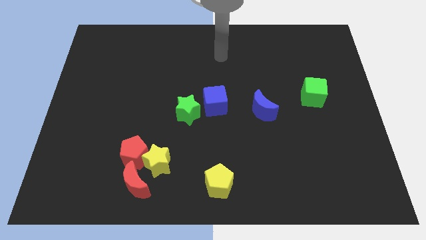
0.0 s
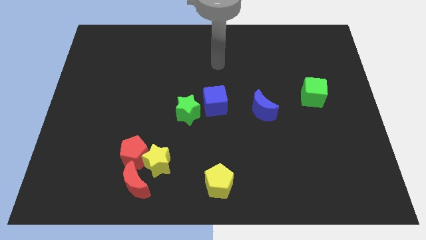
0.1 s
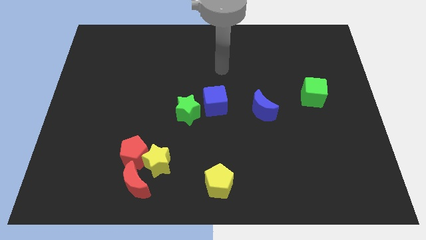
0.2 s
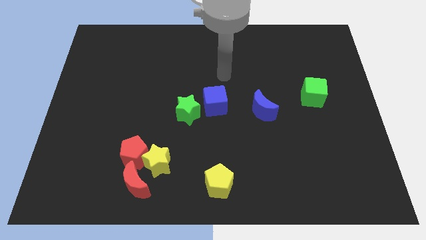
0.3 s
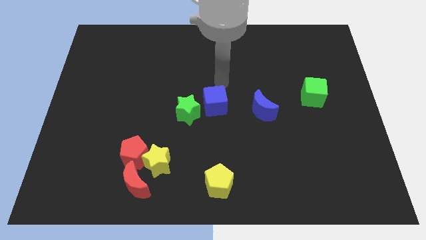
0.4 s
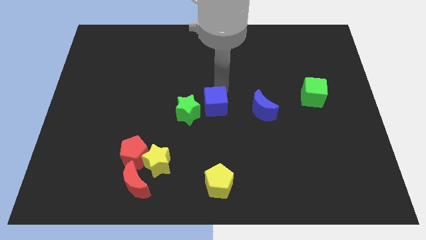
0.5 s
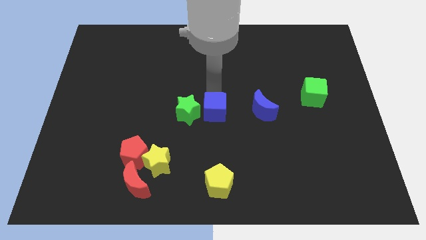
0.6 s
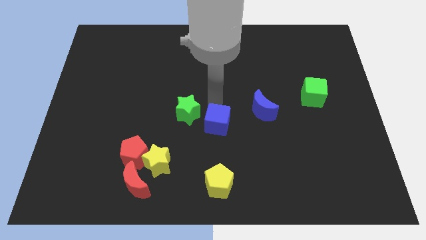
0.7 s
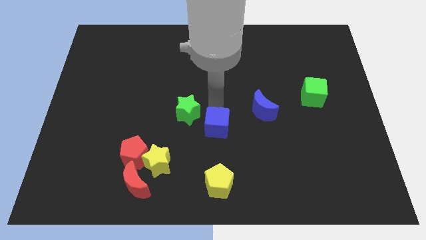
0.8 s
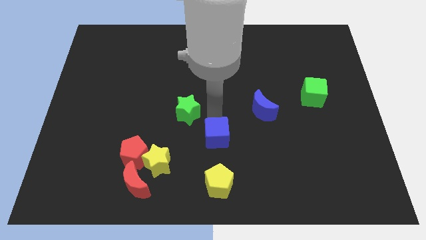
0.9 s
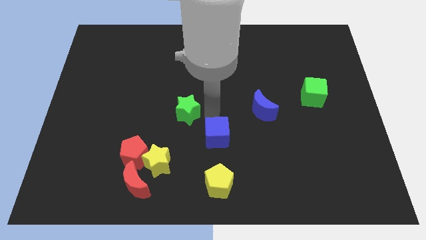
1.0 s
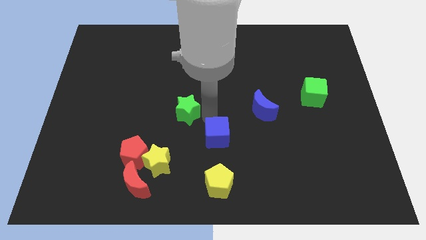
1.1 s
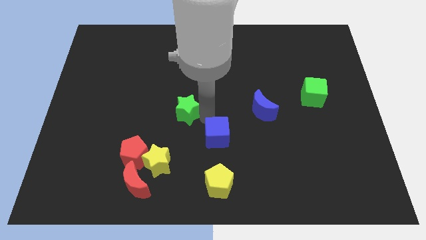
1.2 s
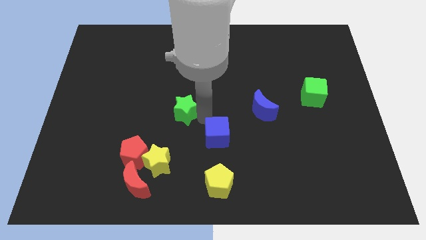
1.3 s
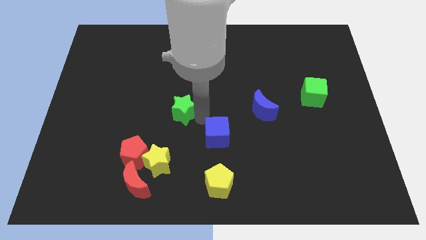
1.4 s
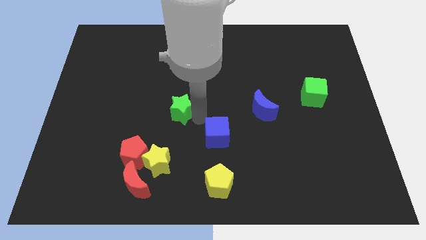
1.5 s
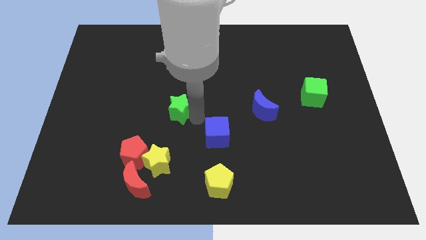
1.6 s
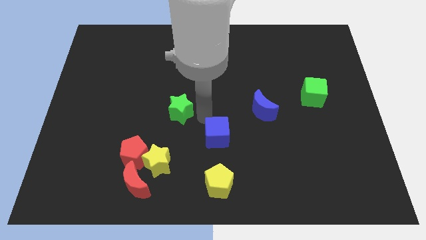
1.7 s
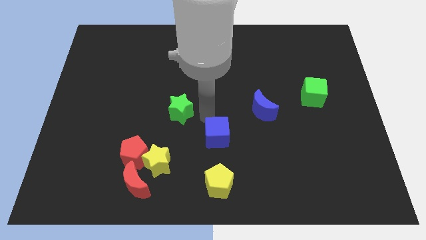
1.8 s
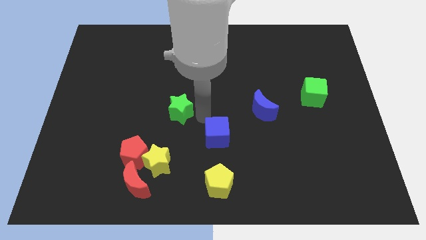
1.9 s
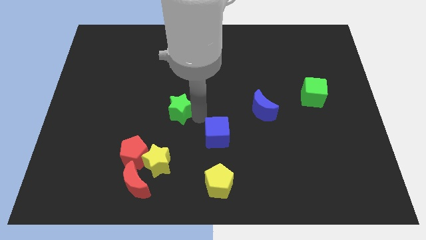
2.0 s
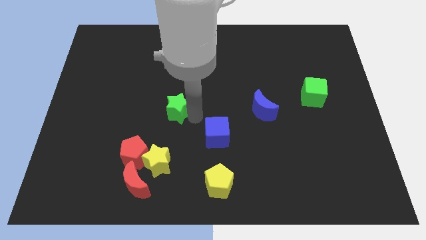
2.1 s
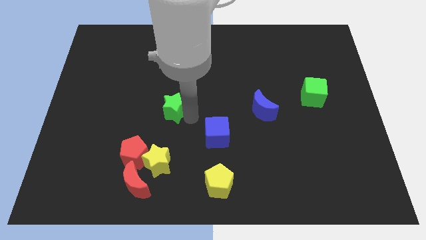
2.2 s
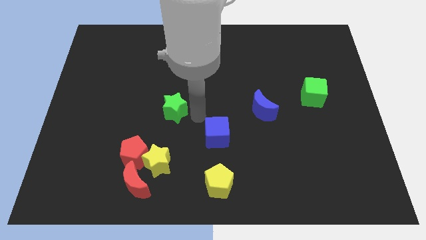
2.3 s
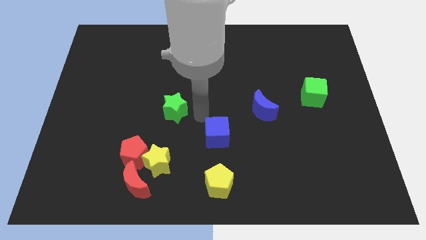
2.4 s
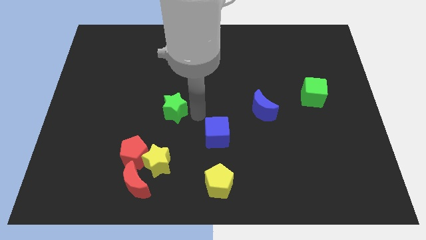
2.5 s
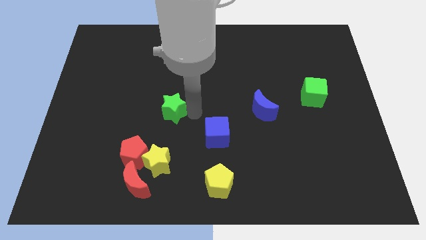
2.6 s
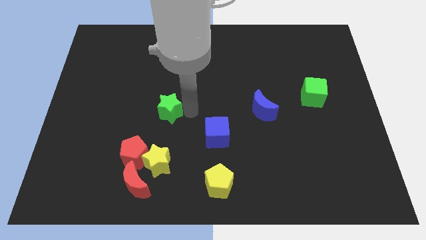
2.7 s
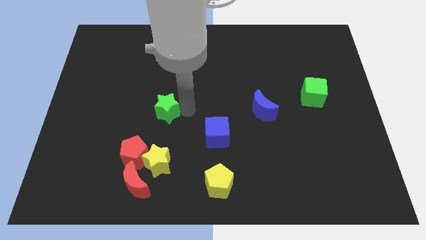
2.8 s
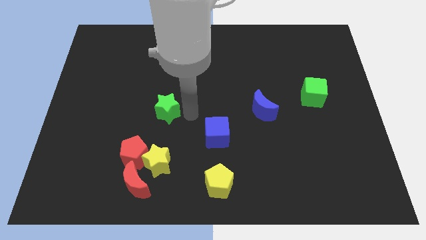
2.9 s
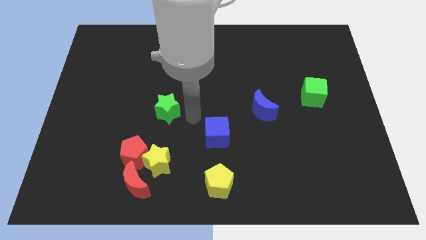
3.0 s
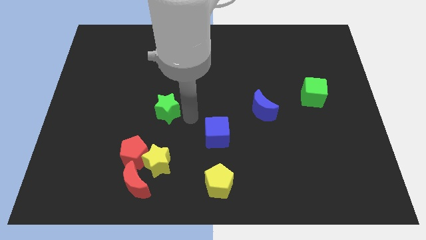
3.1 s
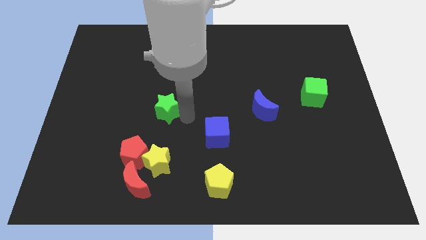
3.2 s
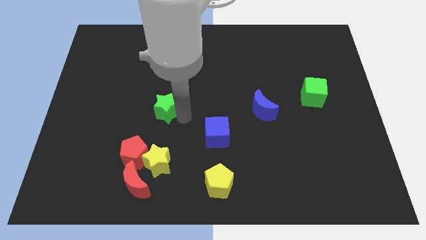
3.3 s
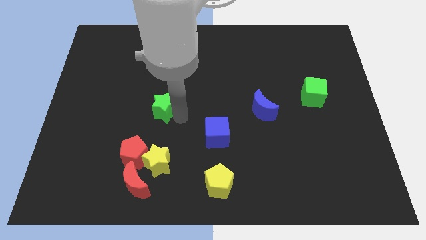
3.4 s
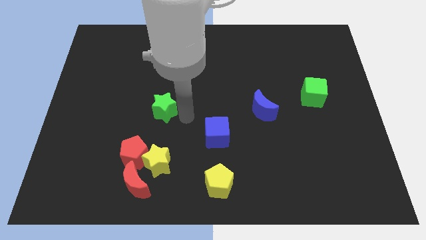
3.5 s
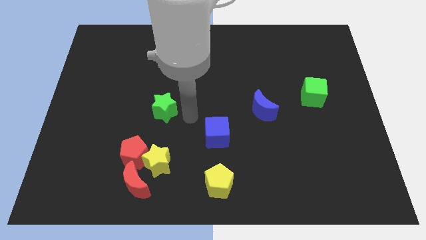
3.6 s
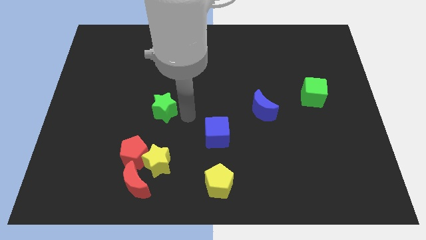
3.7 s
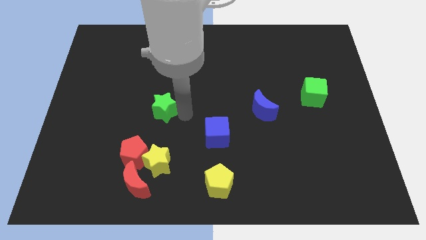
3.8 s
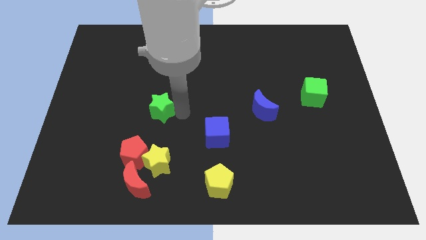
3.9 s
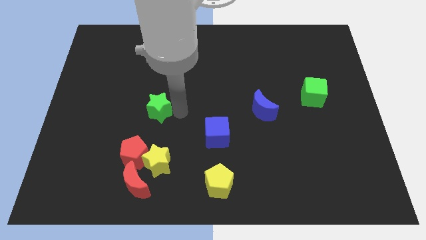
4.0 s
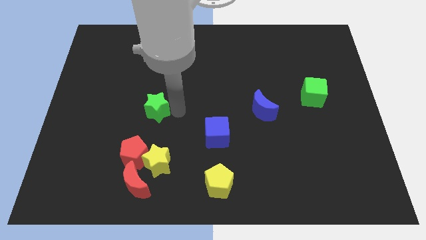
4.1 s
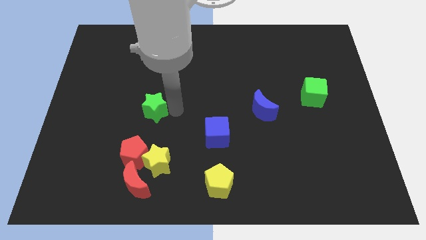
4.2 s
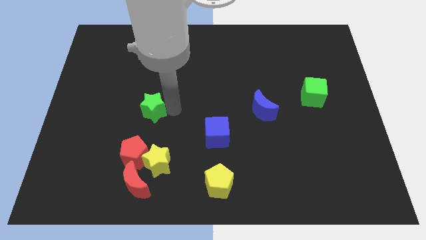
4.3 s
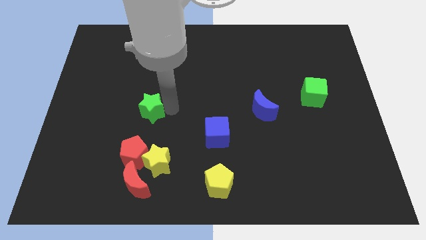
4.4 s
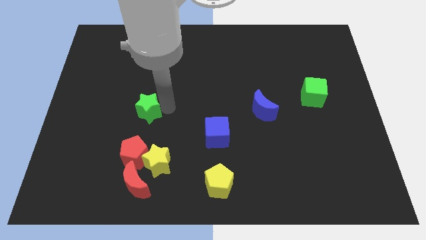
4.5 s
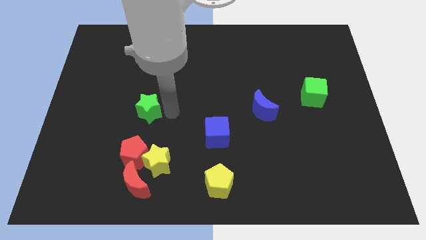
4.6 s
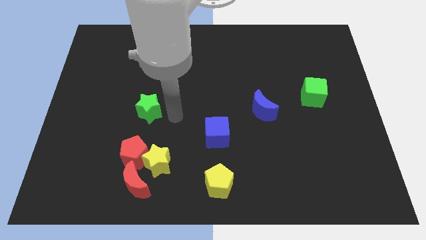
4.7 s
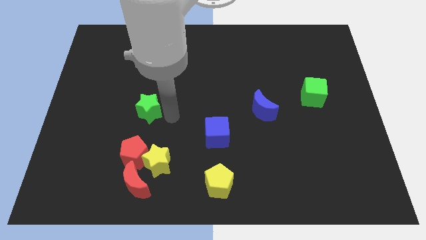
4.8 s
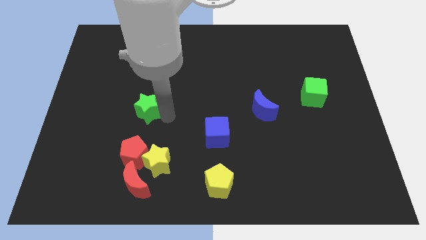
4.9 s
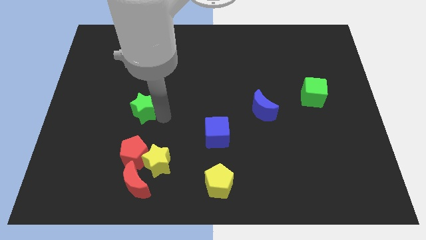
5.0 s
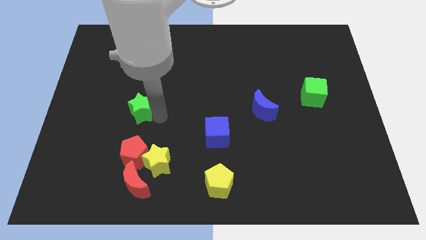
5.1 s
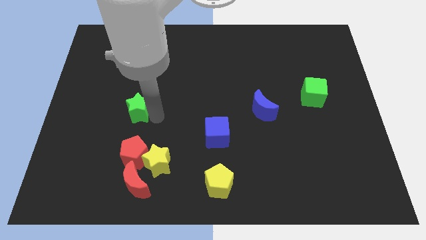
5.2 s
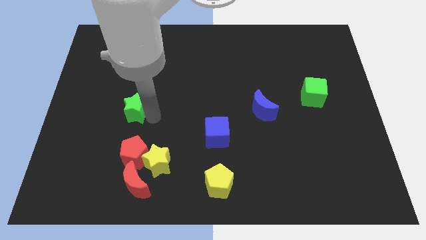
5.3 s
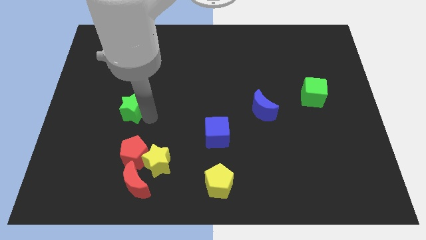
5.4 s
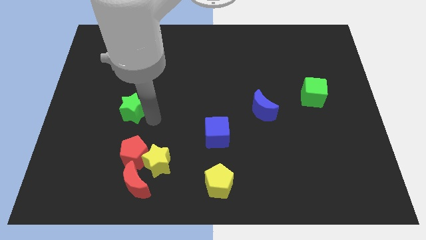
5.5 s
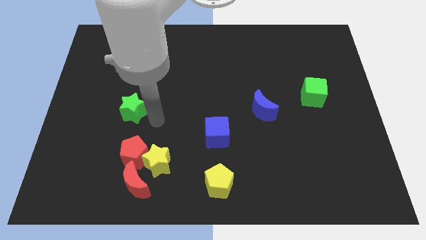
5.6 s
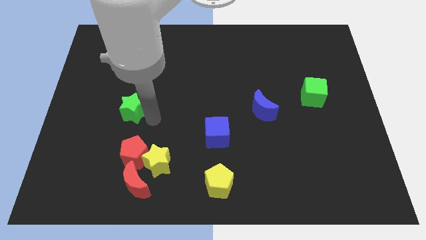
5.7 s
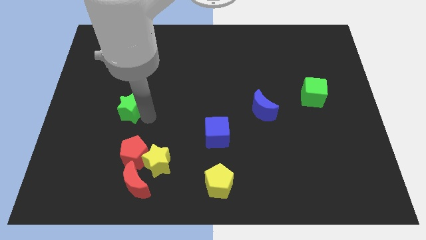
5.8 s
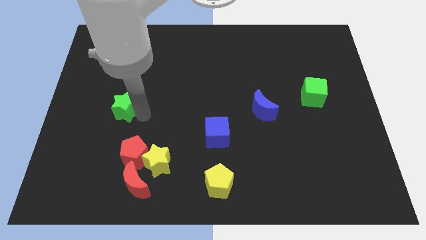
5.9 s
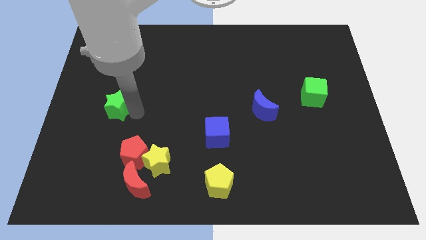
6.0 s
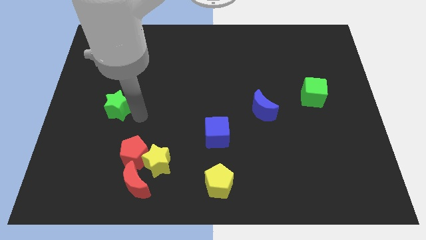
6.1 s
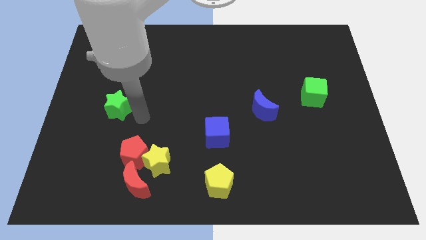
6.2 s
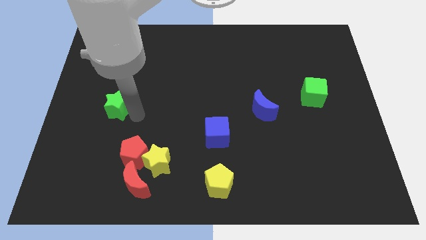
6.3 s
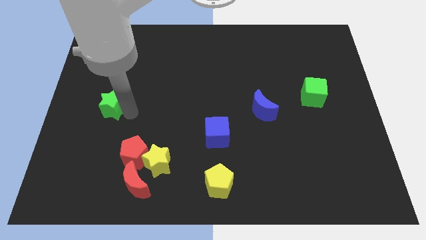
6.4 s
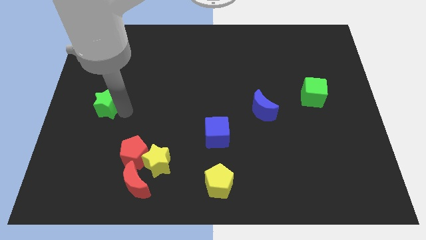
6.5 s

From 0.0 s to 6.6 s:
put the green star to the left side of the board
